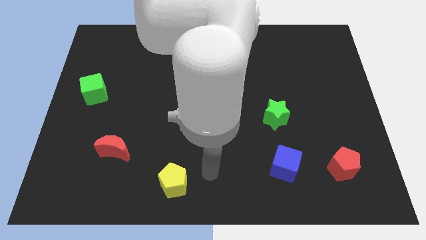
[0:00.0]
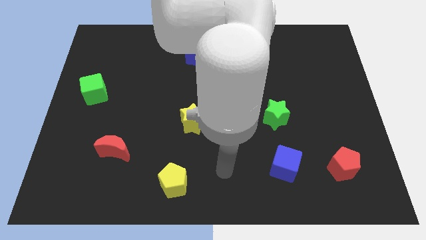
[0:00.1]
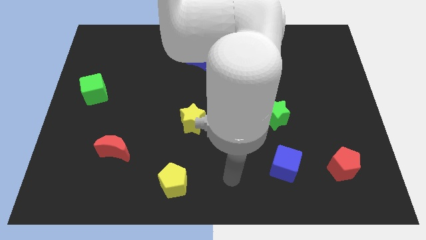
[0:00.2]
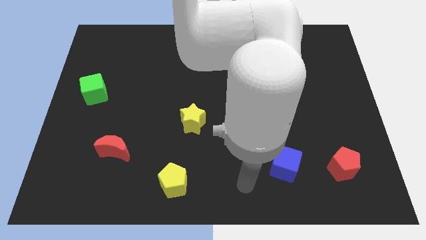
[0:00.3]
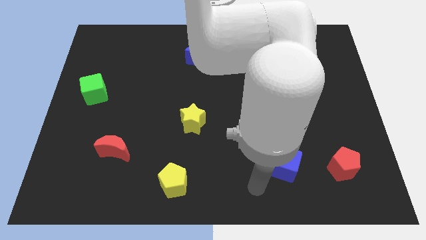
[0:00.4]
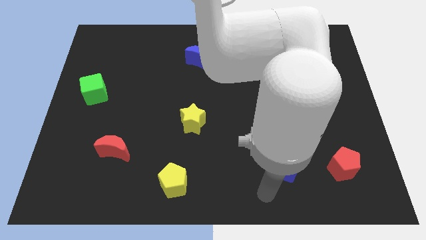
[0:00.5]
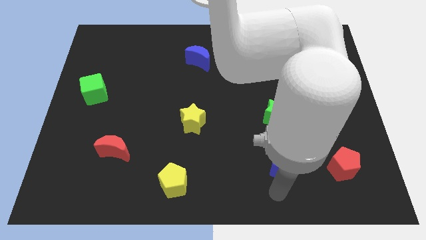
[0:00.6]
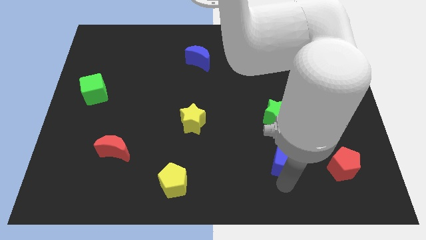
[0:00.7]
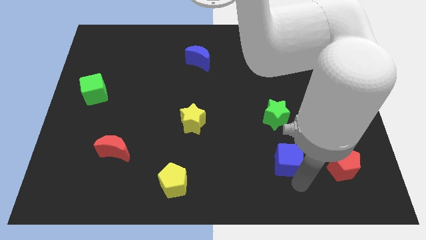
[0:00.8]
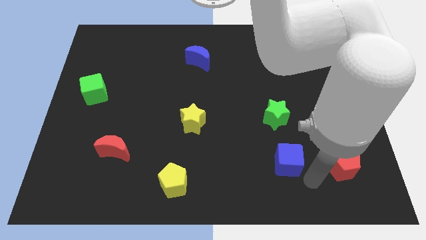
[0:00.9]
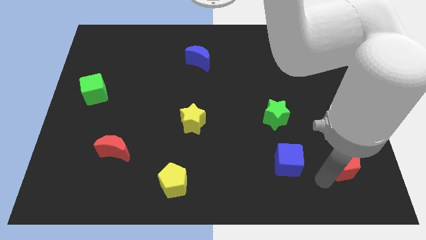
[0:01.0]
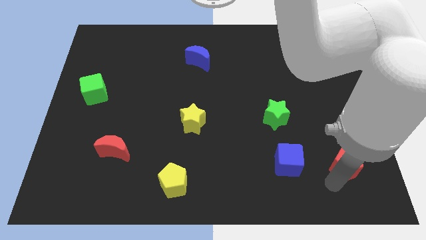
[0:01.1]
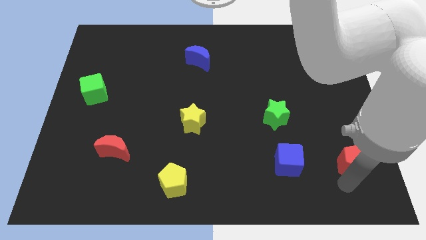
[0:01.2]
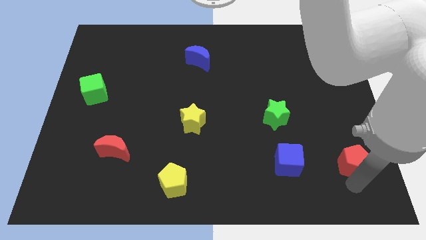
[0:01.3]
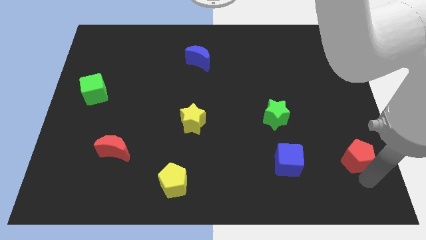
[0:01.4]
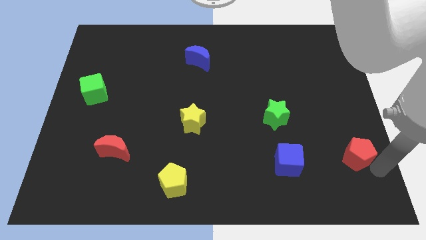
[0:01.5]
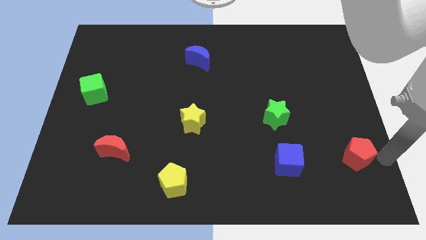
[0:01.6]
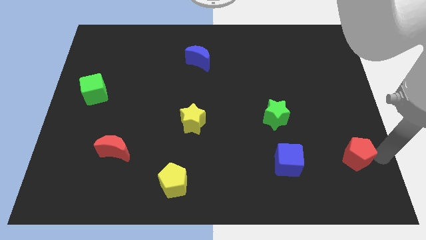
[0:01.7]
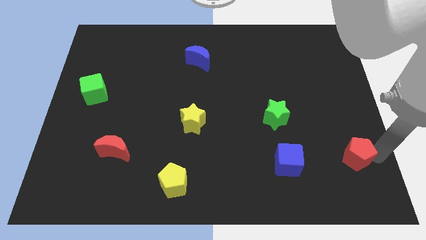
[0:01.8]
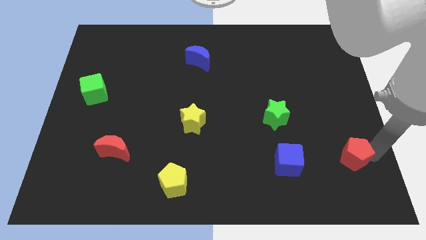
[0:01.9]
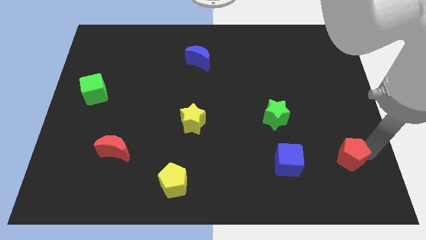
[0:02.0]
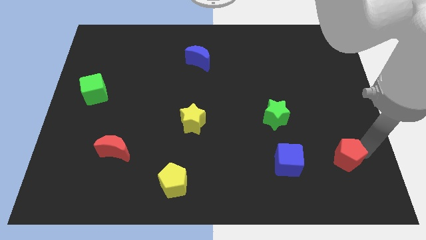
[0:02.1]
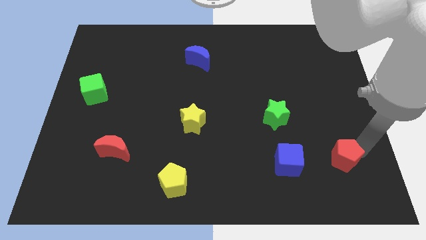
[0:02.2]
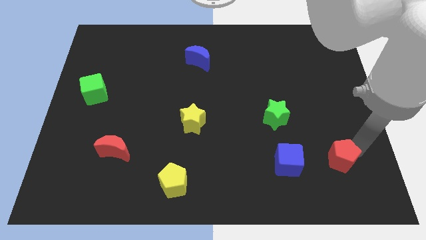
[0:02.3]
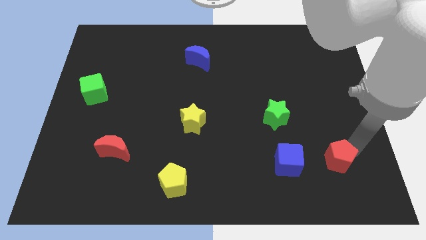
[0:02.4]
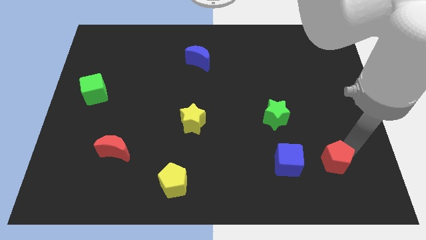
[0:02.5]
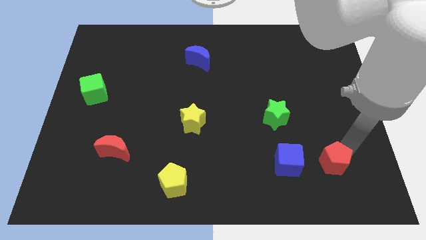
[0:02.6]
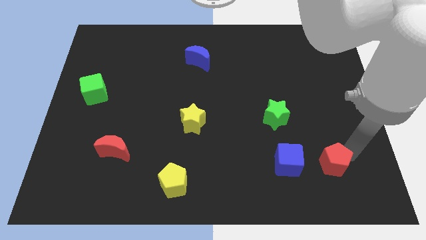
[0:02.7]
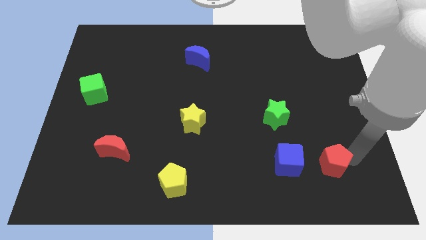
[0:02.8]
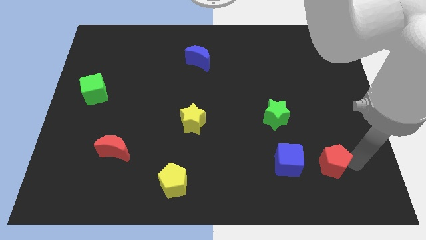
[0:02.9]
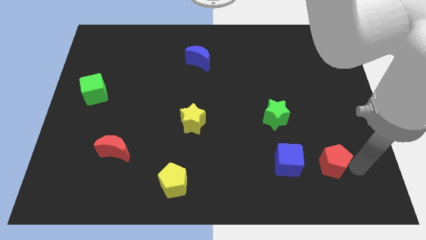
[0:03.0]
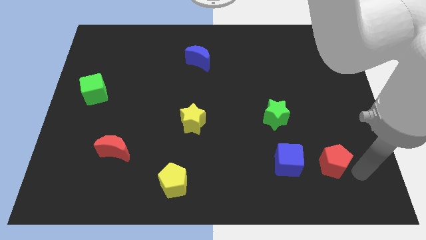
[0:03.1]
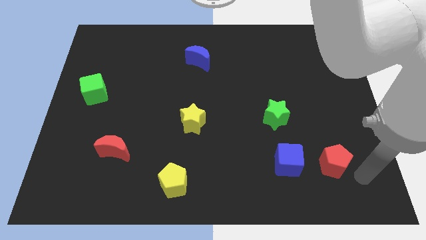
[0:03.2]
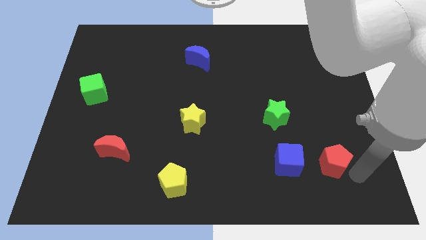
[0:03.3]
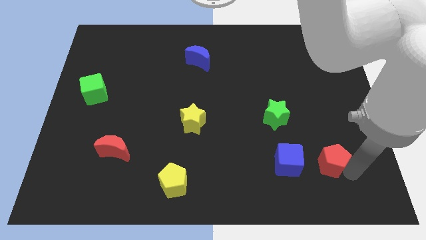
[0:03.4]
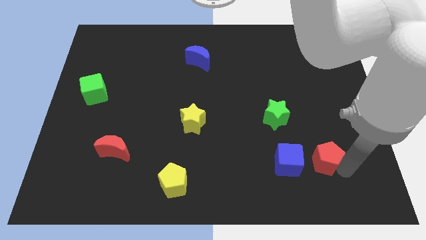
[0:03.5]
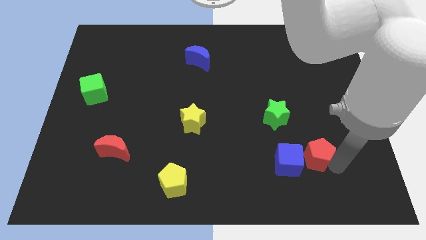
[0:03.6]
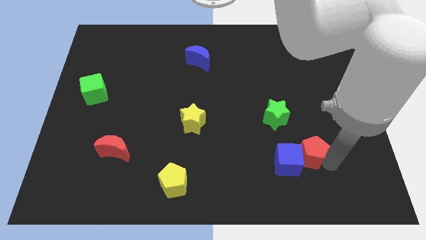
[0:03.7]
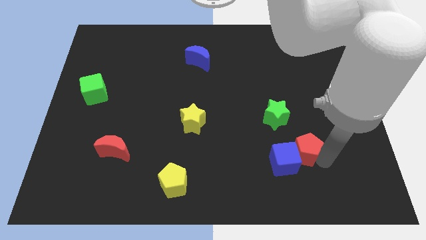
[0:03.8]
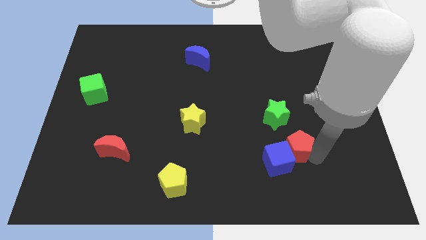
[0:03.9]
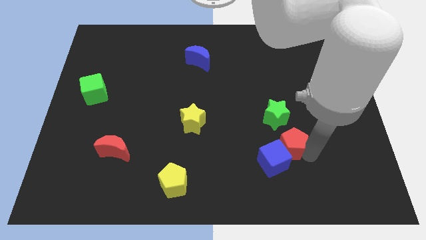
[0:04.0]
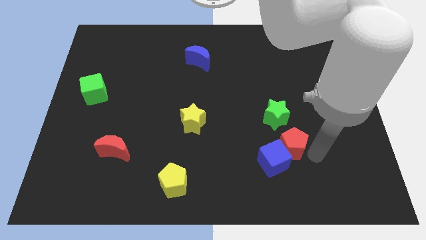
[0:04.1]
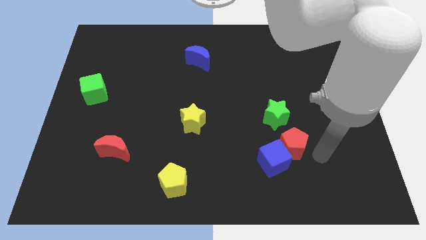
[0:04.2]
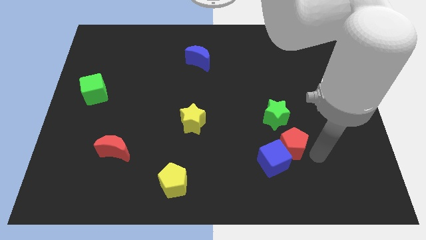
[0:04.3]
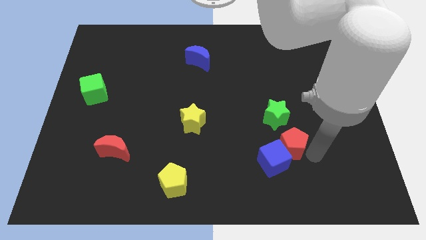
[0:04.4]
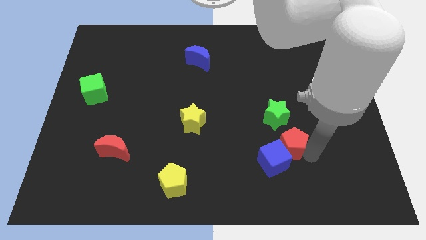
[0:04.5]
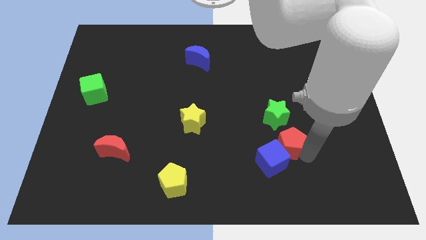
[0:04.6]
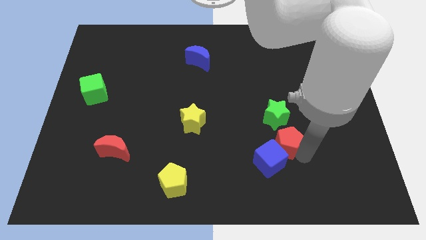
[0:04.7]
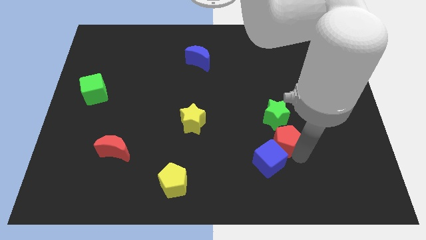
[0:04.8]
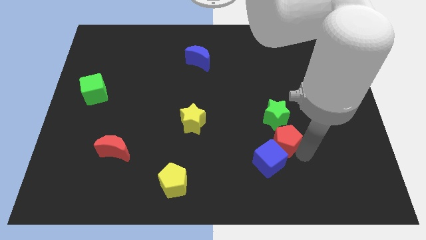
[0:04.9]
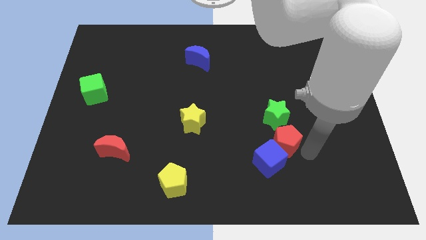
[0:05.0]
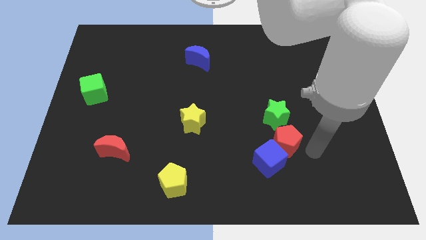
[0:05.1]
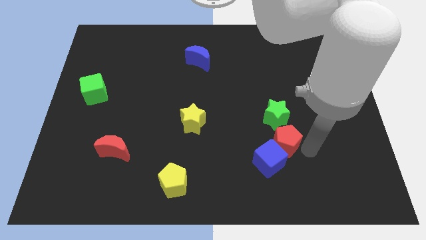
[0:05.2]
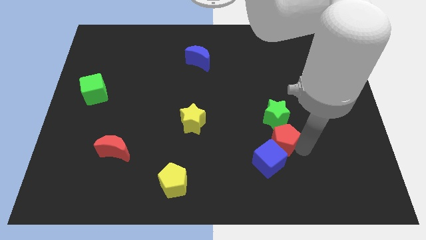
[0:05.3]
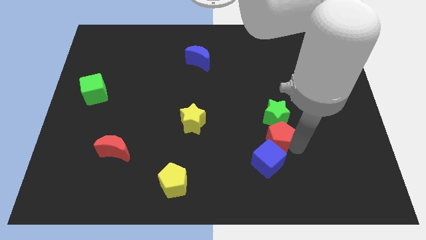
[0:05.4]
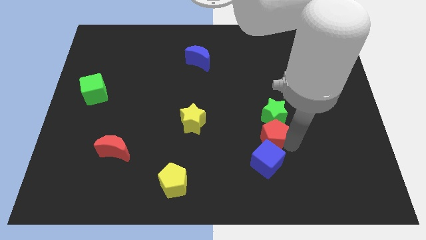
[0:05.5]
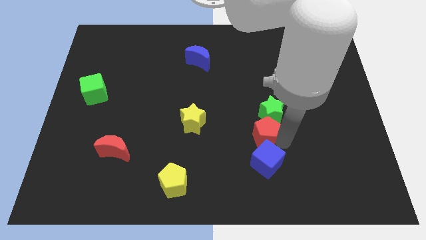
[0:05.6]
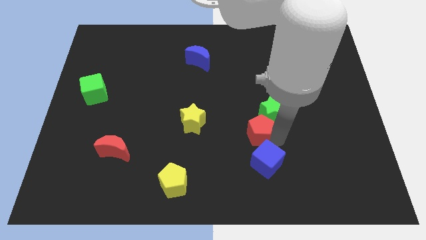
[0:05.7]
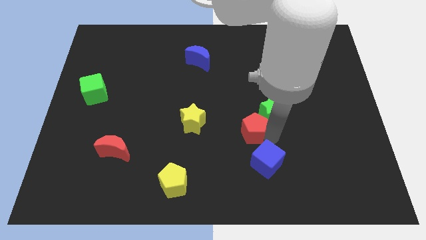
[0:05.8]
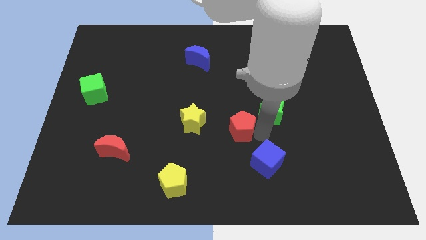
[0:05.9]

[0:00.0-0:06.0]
put the red pentagon to the center

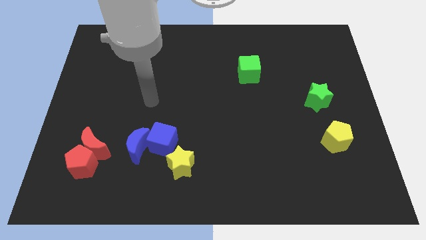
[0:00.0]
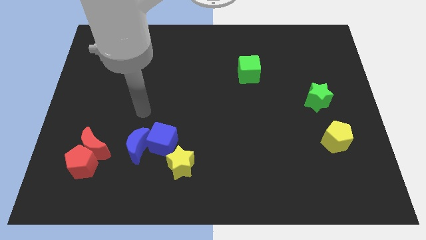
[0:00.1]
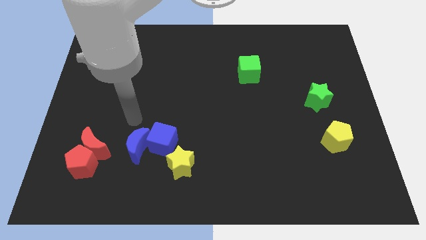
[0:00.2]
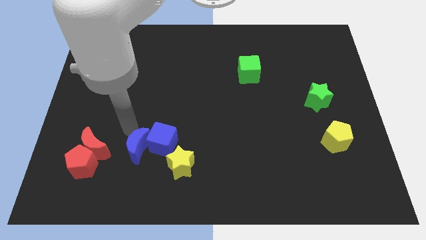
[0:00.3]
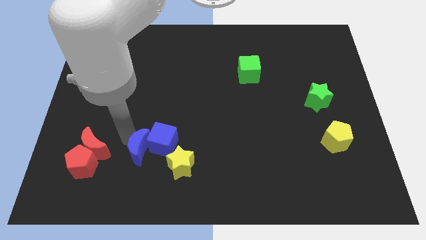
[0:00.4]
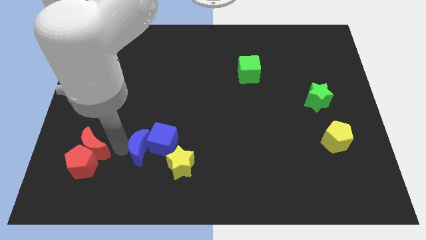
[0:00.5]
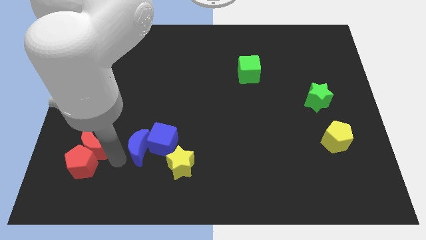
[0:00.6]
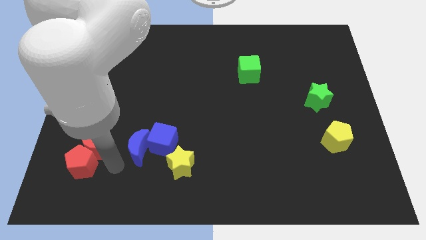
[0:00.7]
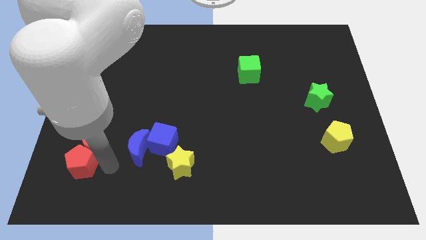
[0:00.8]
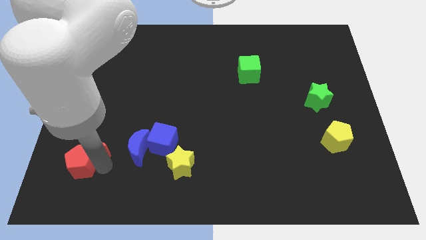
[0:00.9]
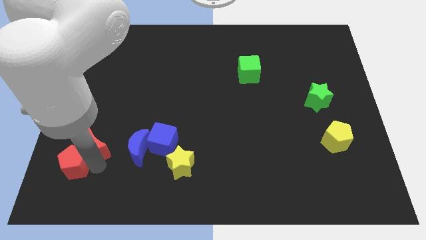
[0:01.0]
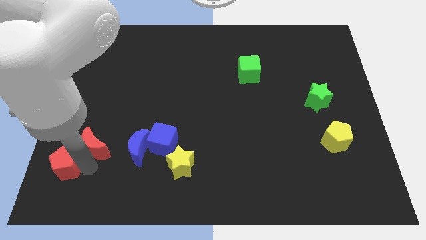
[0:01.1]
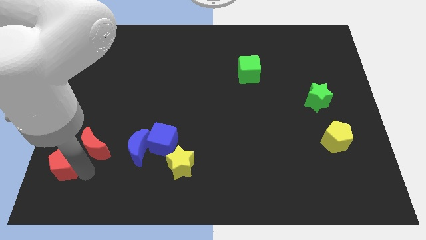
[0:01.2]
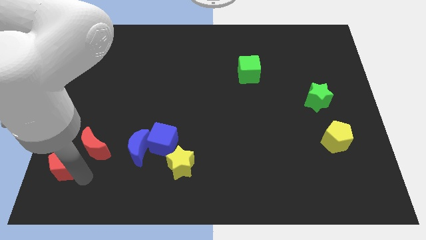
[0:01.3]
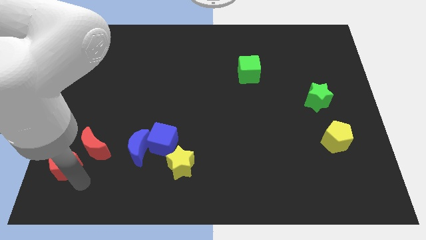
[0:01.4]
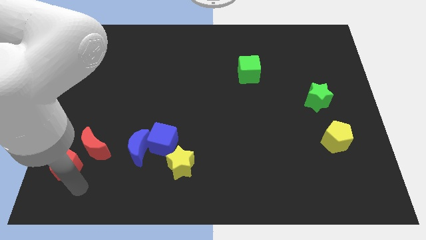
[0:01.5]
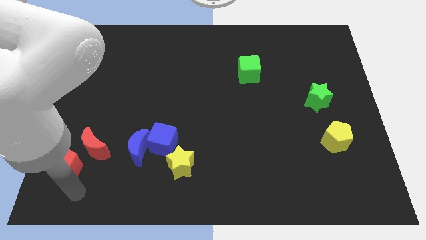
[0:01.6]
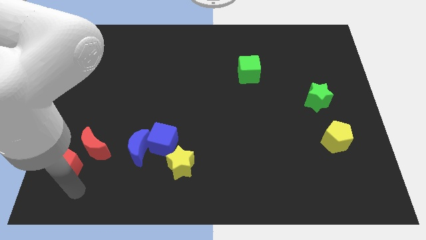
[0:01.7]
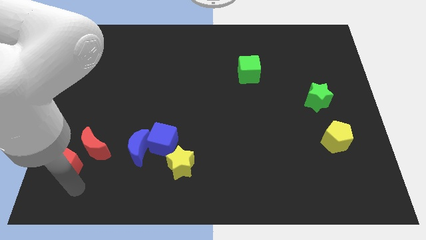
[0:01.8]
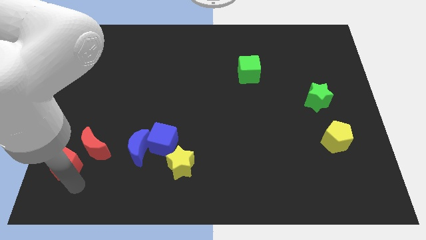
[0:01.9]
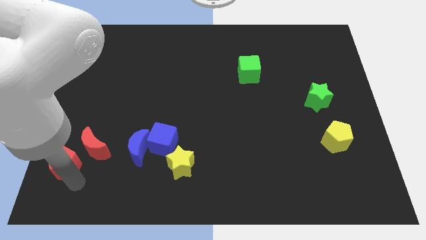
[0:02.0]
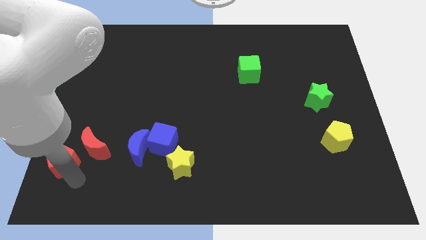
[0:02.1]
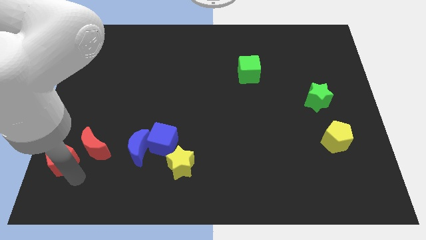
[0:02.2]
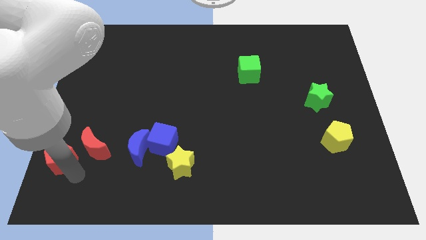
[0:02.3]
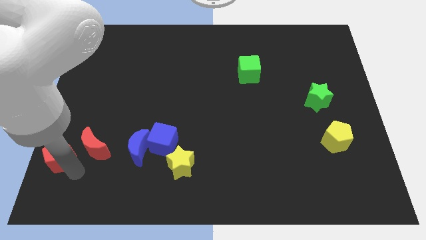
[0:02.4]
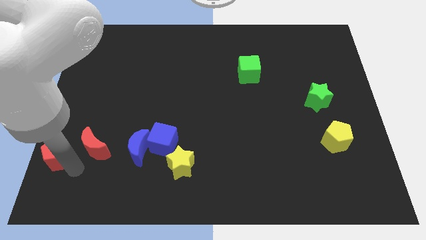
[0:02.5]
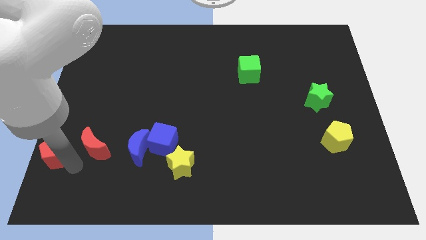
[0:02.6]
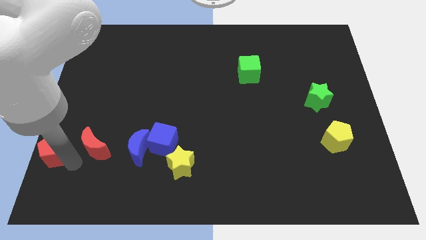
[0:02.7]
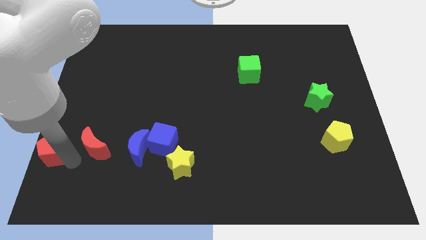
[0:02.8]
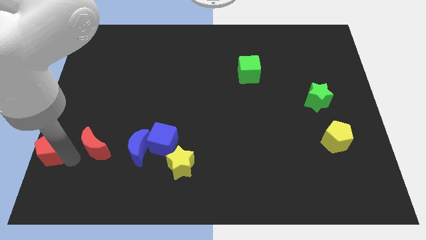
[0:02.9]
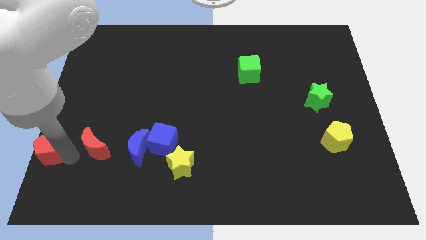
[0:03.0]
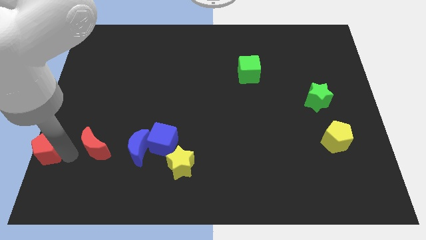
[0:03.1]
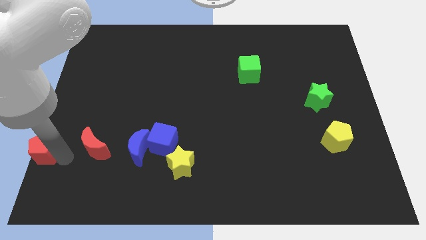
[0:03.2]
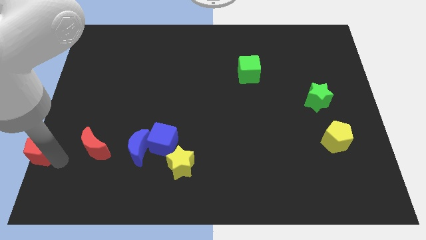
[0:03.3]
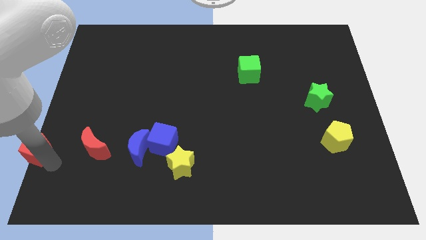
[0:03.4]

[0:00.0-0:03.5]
move the red pentagon to the center left
